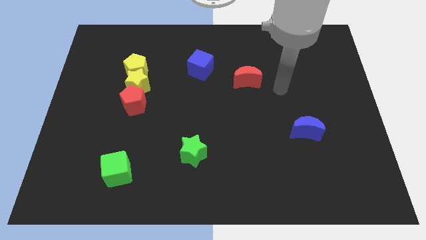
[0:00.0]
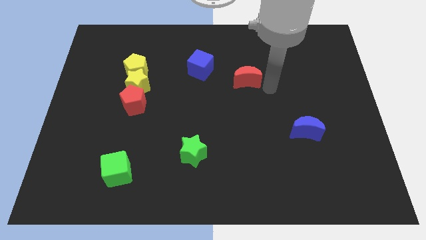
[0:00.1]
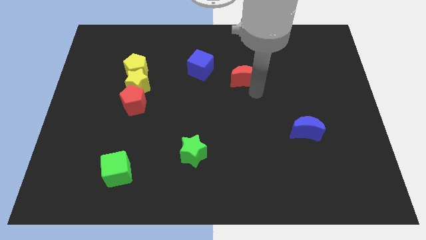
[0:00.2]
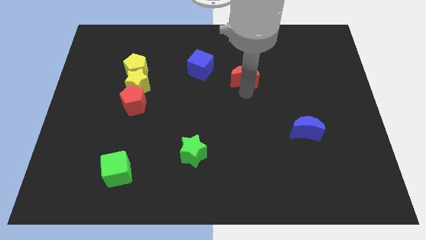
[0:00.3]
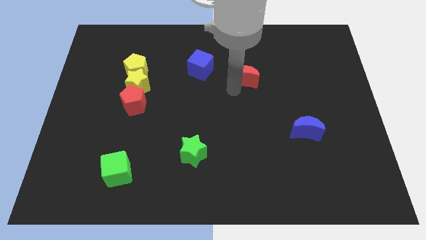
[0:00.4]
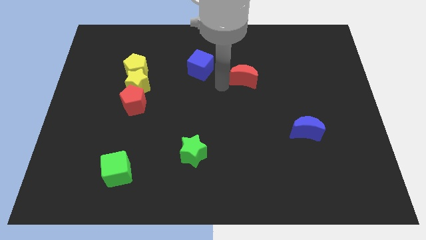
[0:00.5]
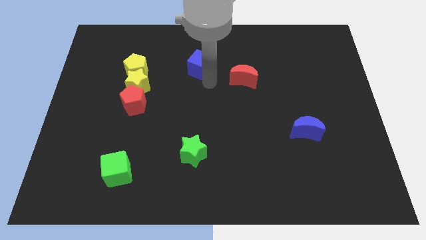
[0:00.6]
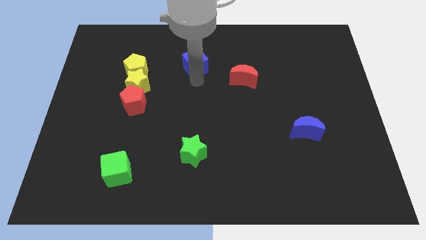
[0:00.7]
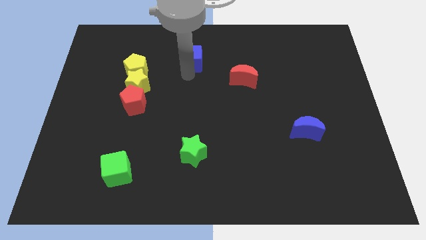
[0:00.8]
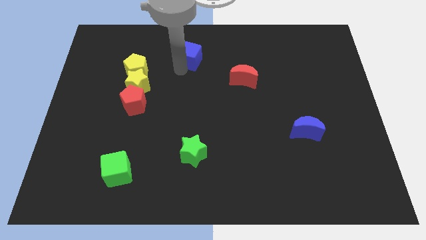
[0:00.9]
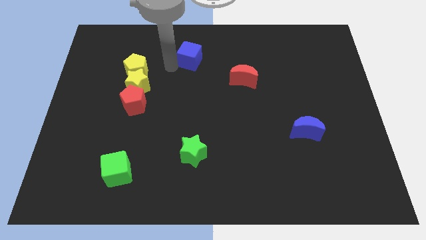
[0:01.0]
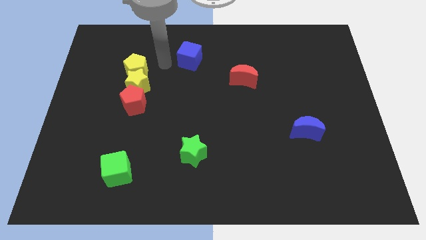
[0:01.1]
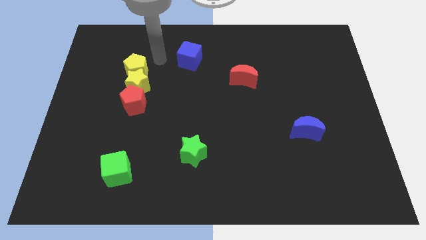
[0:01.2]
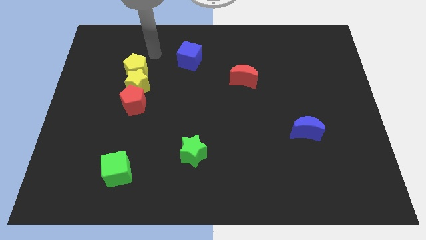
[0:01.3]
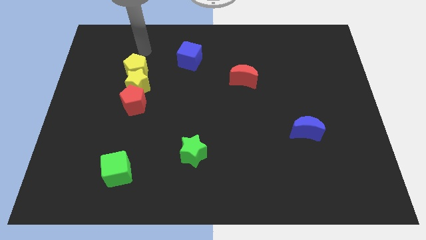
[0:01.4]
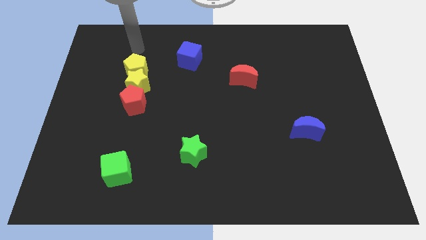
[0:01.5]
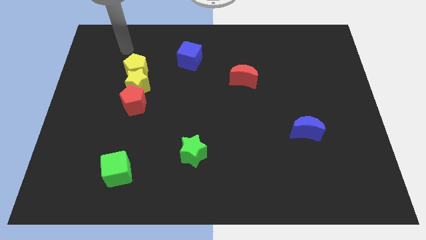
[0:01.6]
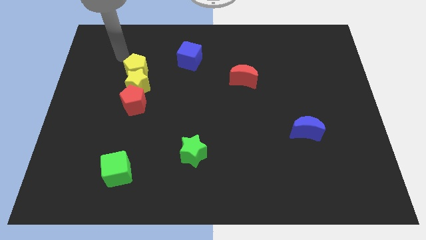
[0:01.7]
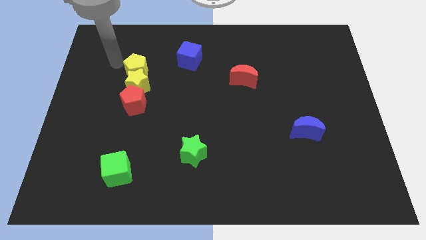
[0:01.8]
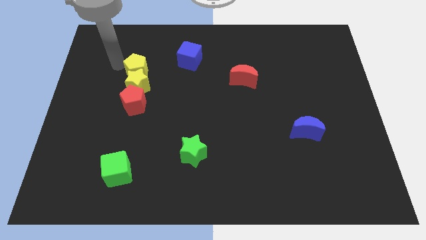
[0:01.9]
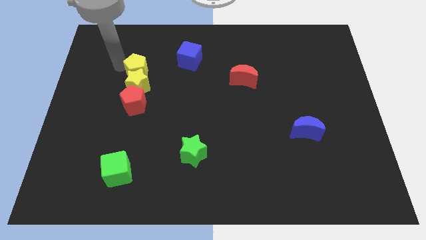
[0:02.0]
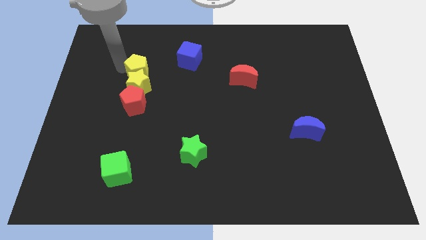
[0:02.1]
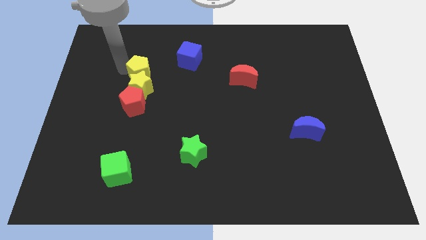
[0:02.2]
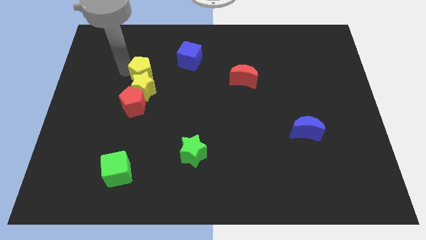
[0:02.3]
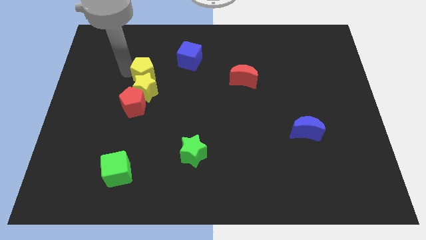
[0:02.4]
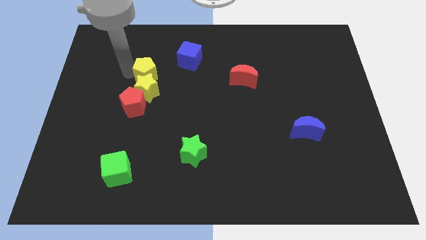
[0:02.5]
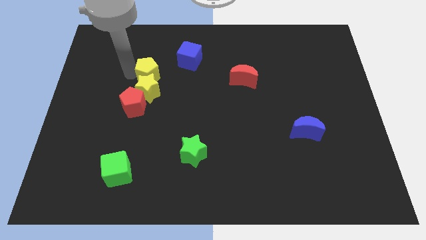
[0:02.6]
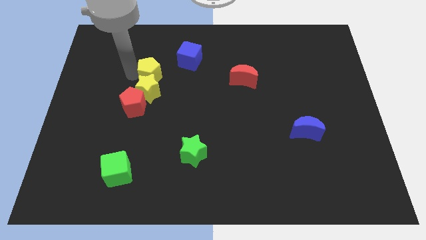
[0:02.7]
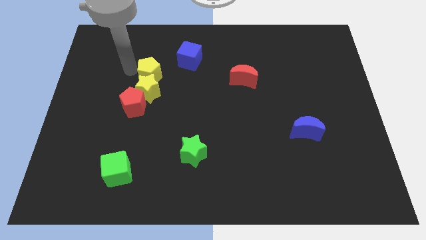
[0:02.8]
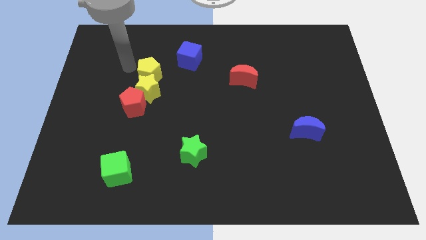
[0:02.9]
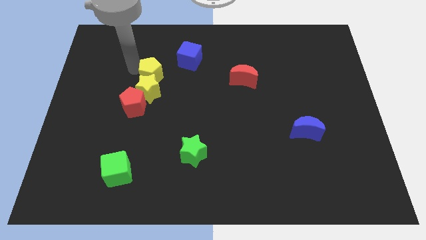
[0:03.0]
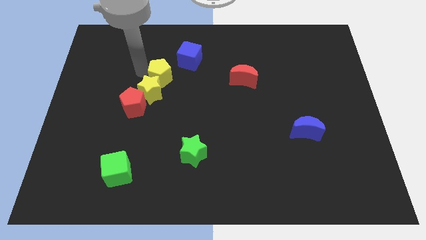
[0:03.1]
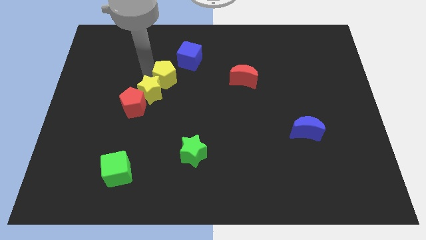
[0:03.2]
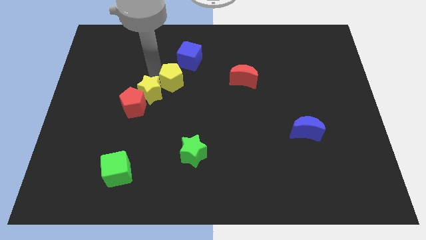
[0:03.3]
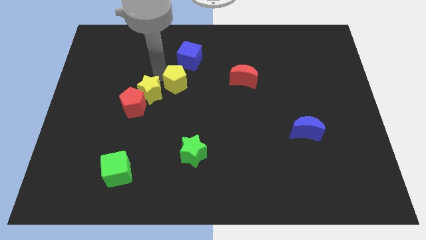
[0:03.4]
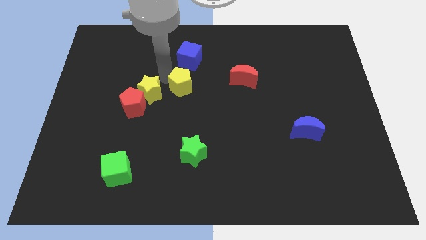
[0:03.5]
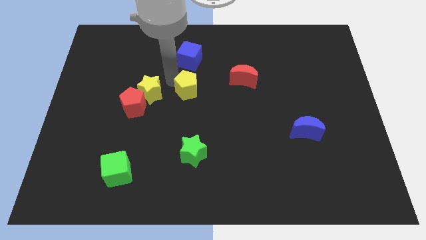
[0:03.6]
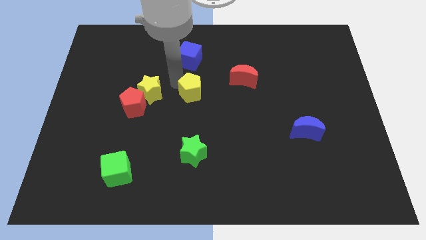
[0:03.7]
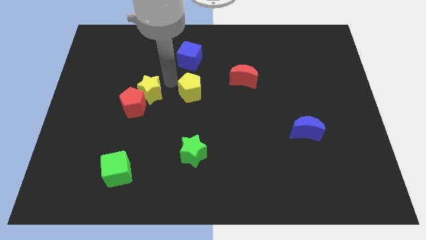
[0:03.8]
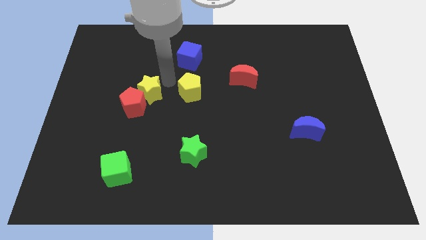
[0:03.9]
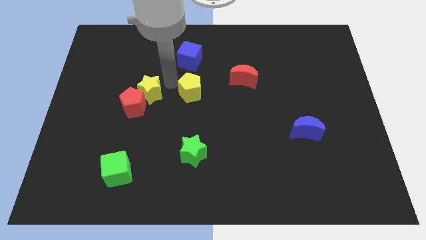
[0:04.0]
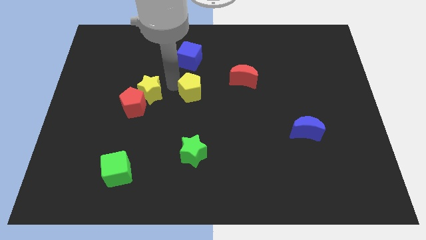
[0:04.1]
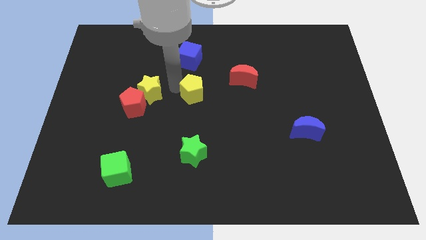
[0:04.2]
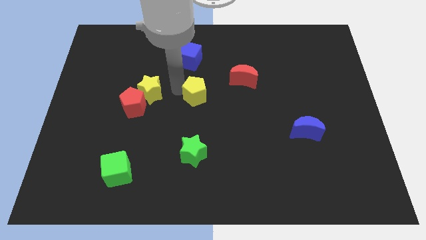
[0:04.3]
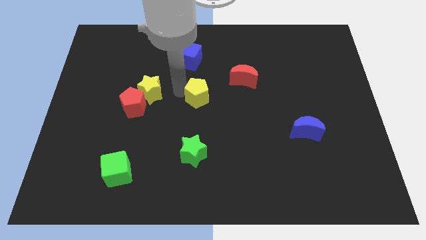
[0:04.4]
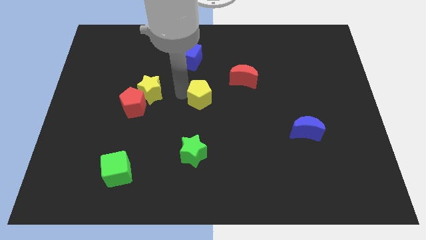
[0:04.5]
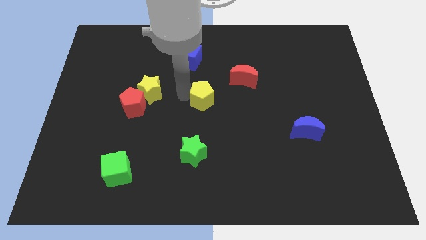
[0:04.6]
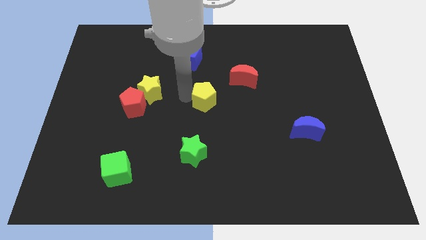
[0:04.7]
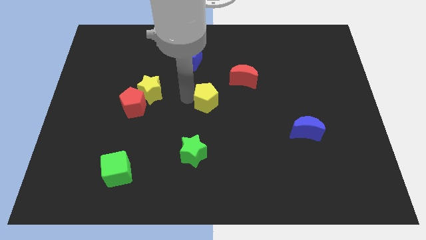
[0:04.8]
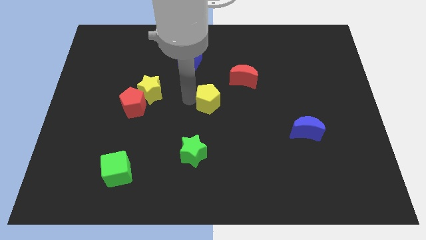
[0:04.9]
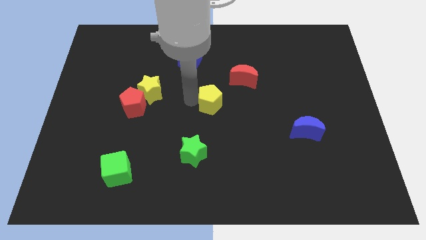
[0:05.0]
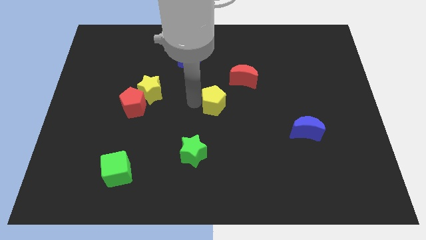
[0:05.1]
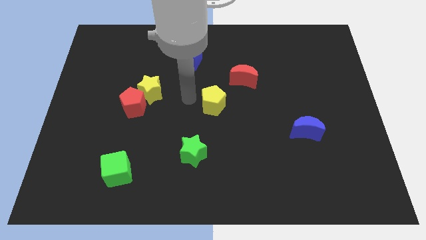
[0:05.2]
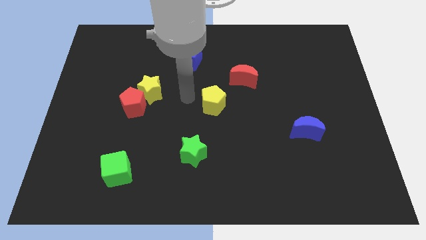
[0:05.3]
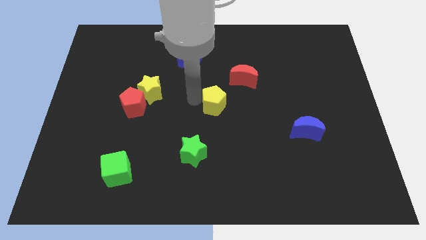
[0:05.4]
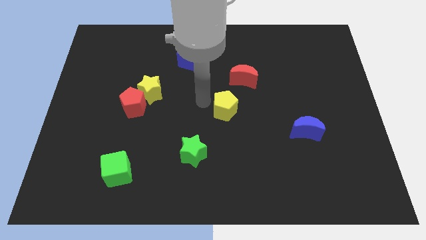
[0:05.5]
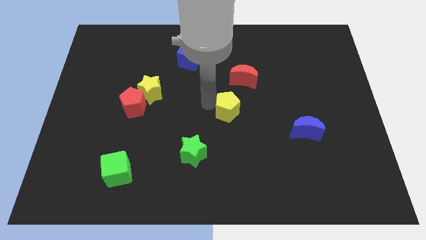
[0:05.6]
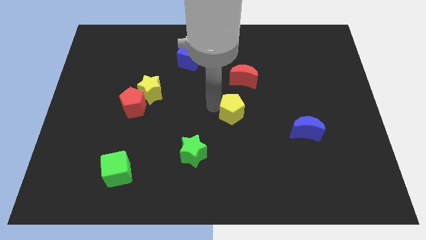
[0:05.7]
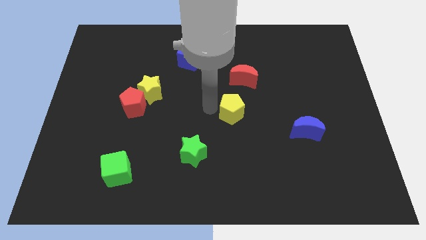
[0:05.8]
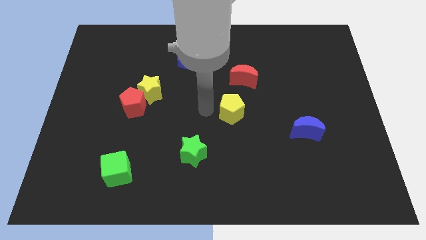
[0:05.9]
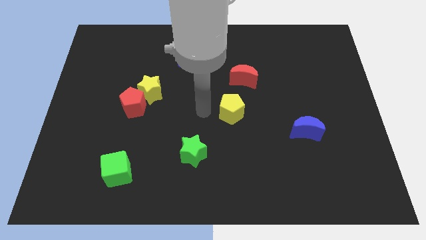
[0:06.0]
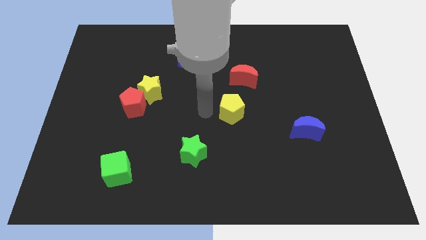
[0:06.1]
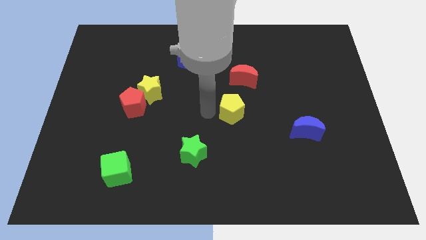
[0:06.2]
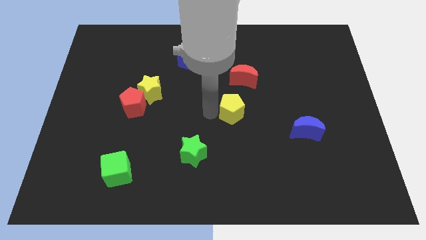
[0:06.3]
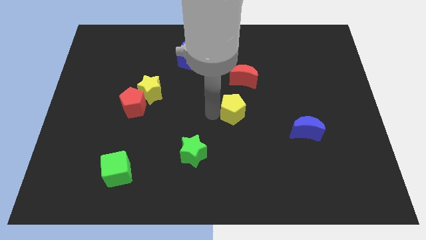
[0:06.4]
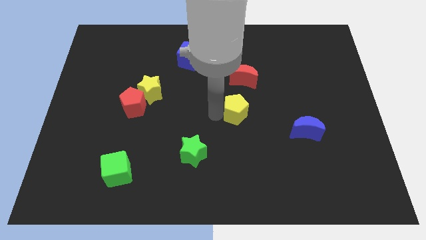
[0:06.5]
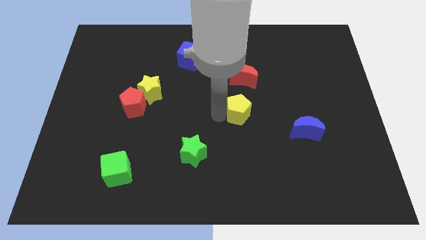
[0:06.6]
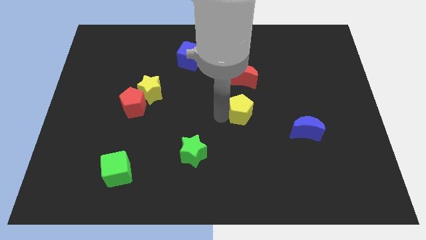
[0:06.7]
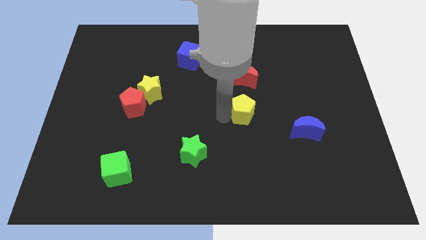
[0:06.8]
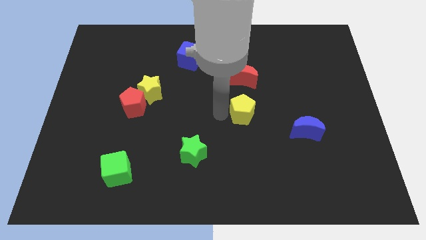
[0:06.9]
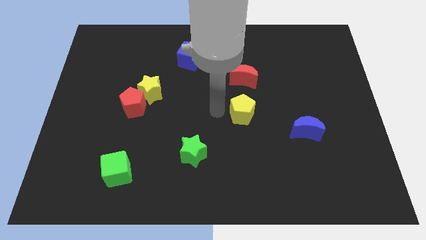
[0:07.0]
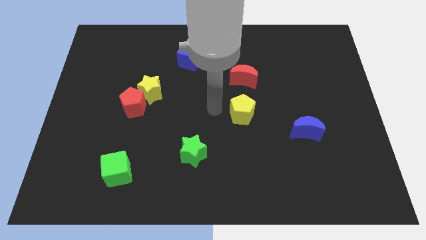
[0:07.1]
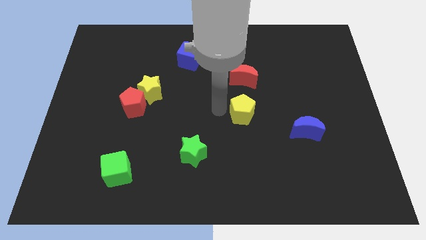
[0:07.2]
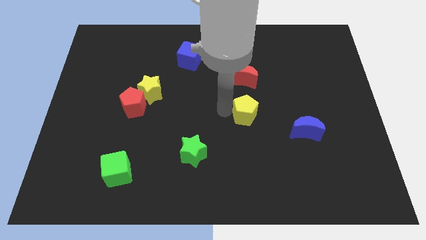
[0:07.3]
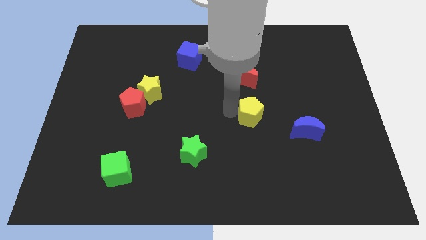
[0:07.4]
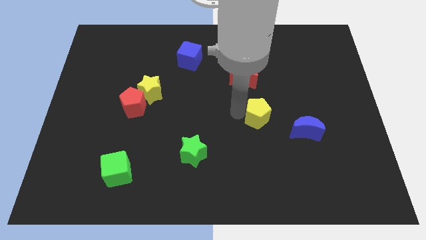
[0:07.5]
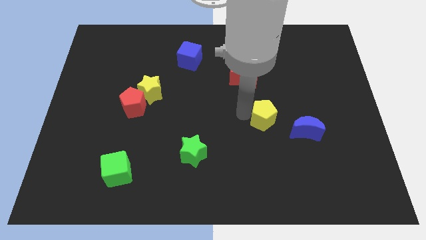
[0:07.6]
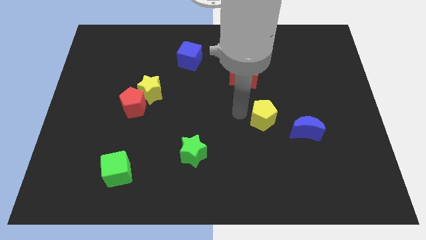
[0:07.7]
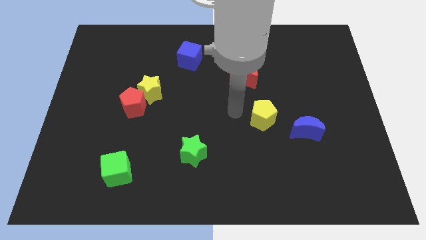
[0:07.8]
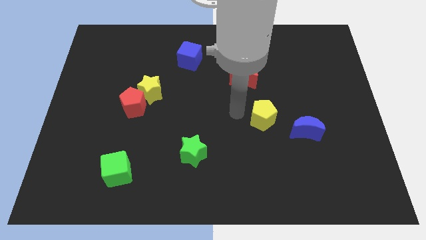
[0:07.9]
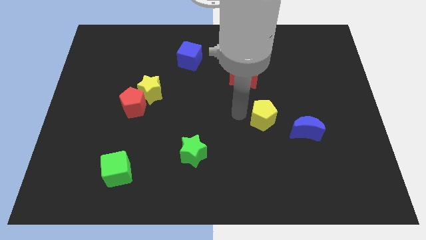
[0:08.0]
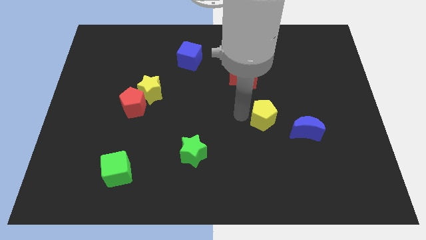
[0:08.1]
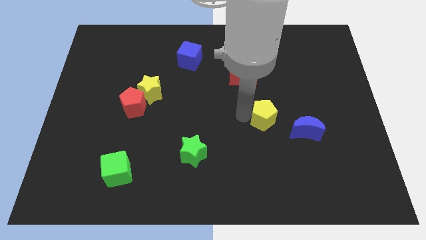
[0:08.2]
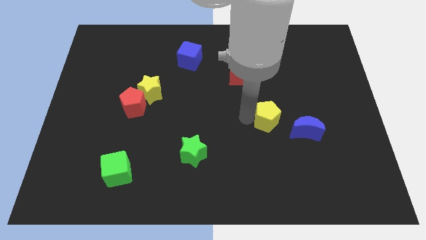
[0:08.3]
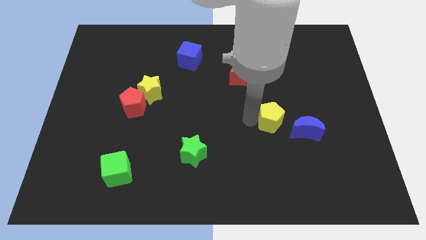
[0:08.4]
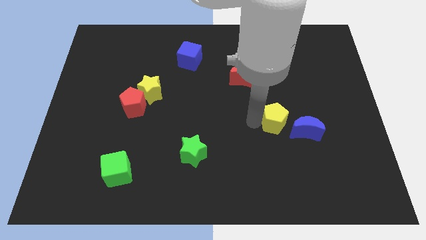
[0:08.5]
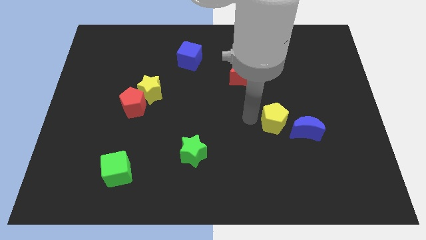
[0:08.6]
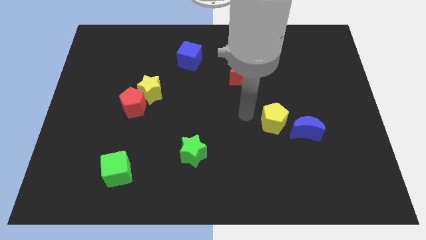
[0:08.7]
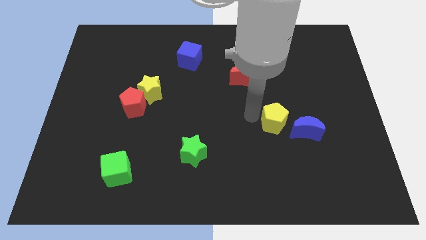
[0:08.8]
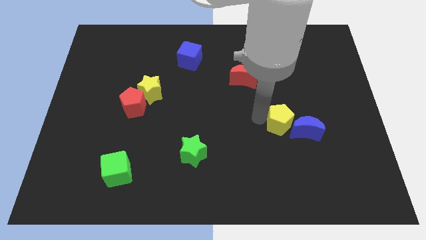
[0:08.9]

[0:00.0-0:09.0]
slide the yellow pentagon towards the blue moon
